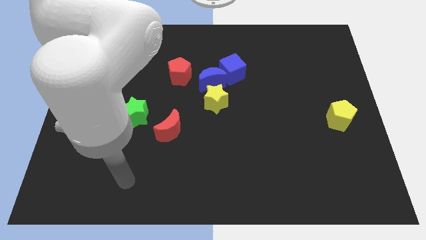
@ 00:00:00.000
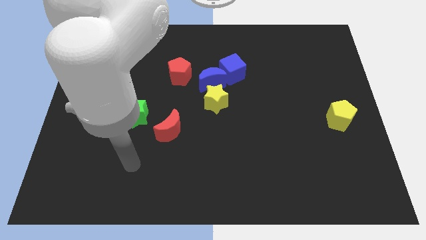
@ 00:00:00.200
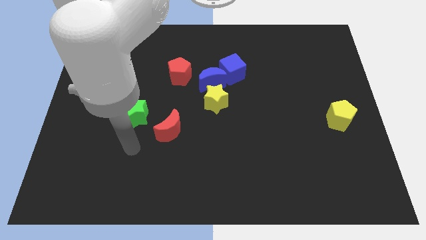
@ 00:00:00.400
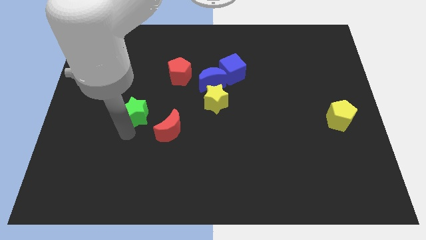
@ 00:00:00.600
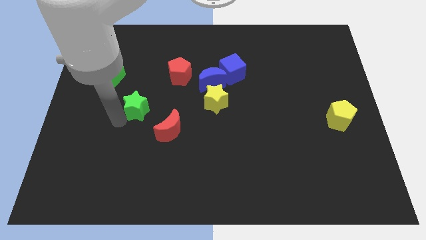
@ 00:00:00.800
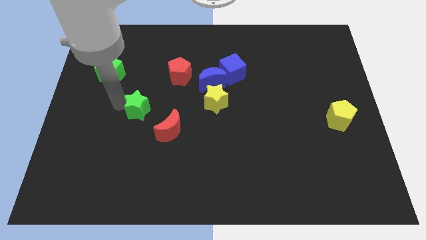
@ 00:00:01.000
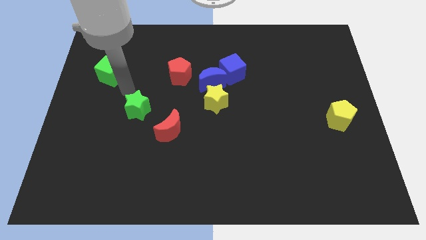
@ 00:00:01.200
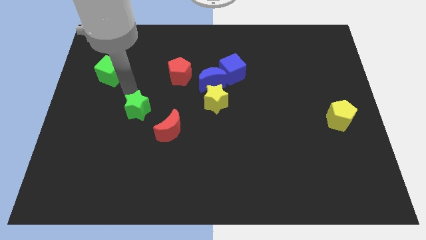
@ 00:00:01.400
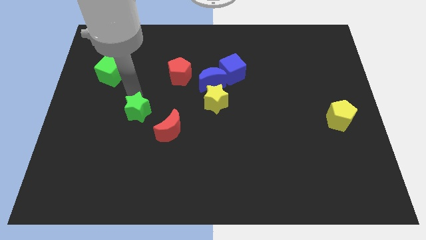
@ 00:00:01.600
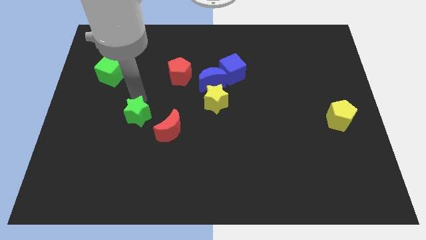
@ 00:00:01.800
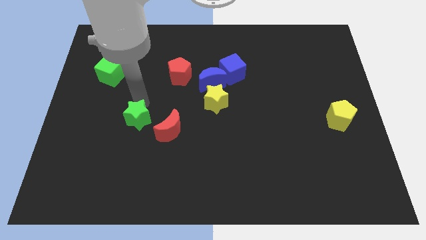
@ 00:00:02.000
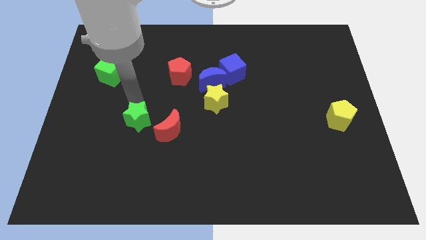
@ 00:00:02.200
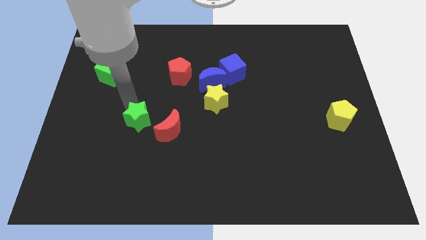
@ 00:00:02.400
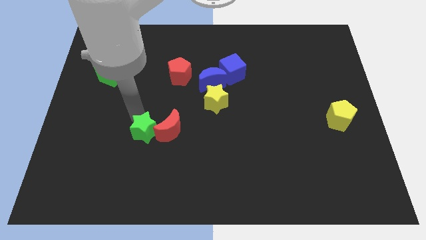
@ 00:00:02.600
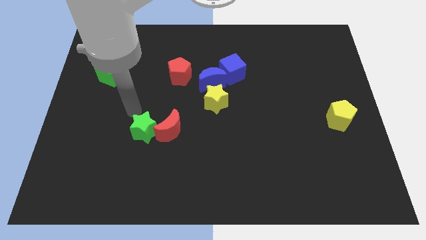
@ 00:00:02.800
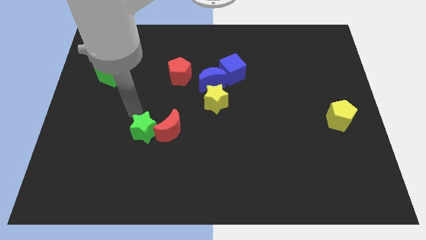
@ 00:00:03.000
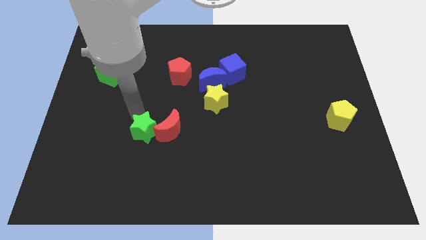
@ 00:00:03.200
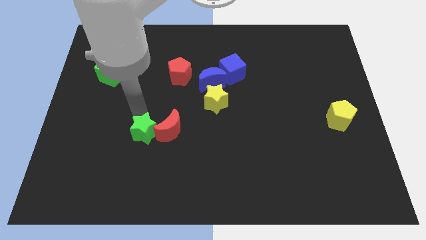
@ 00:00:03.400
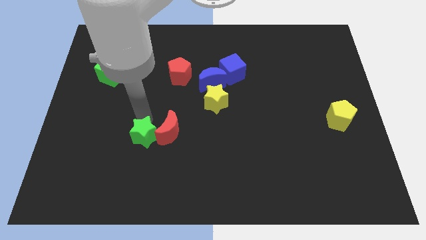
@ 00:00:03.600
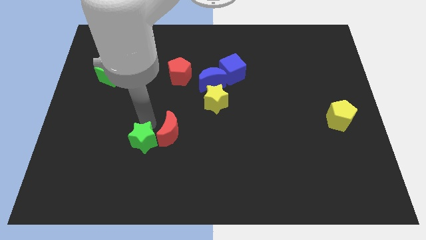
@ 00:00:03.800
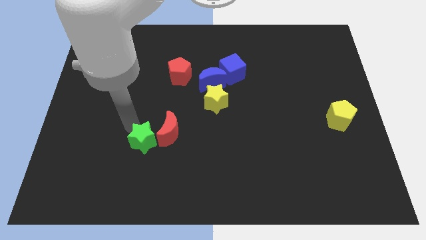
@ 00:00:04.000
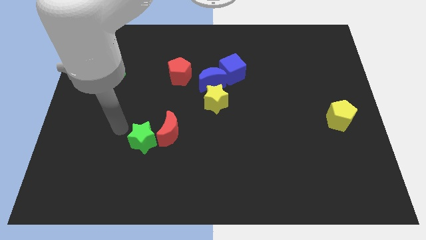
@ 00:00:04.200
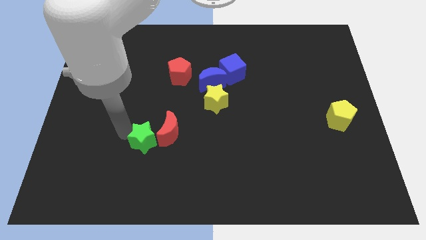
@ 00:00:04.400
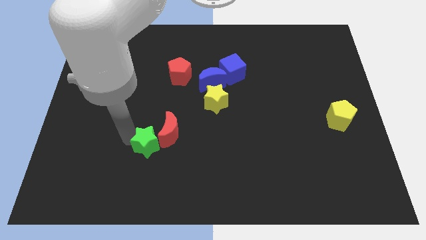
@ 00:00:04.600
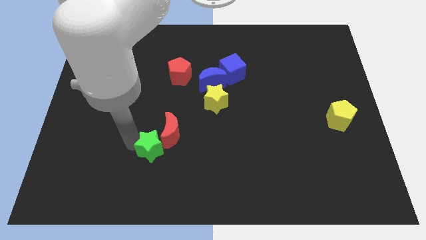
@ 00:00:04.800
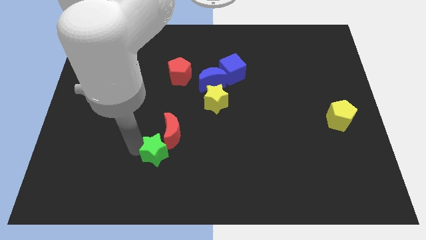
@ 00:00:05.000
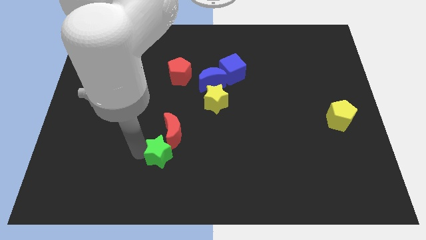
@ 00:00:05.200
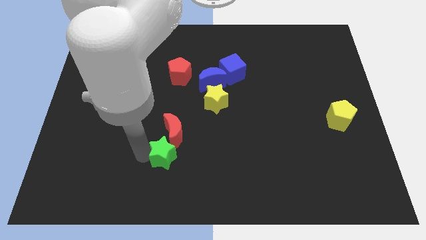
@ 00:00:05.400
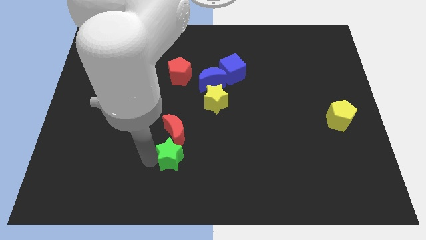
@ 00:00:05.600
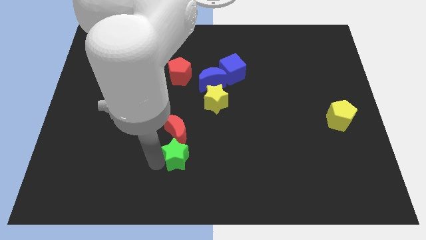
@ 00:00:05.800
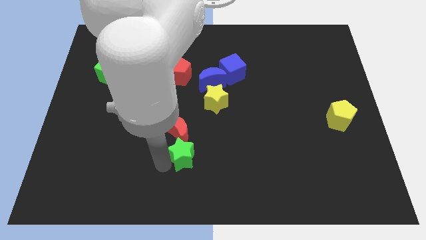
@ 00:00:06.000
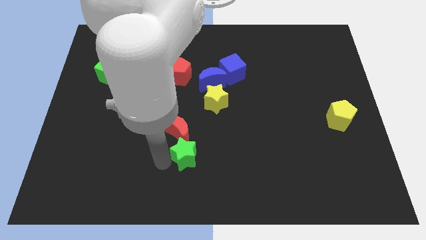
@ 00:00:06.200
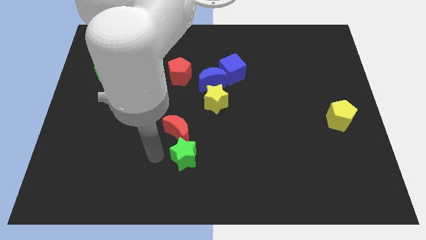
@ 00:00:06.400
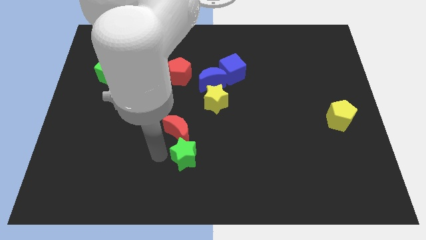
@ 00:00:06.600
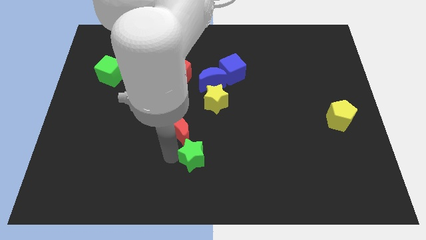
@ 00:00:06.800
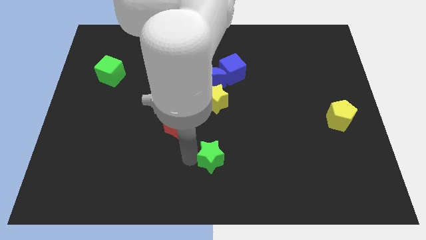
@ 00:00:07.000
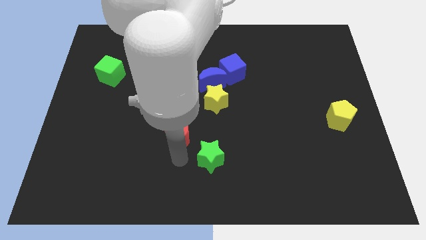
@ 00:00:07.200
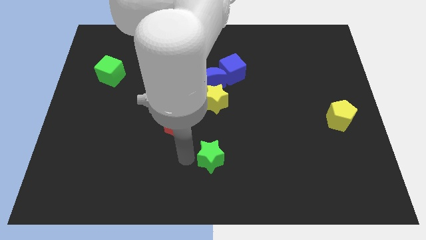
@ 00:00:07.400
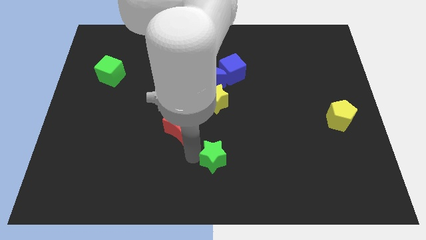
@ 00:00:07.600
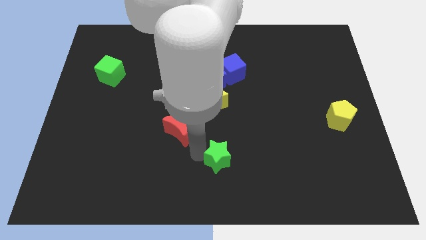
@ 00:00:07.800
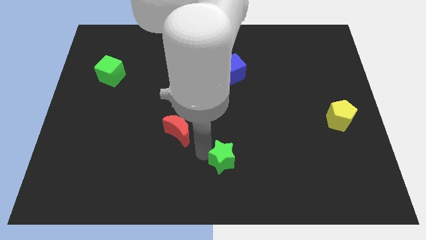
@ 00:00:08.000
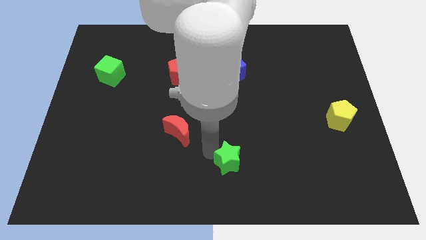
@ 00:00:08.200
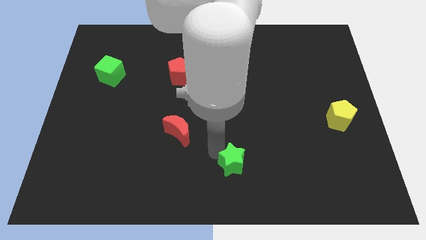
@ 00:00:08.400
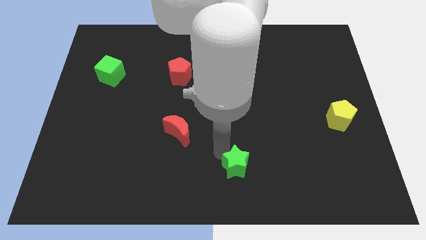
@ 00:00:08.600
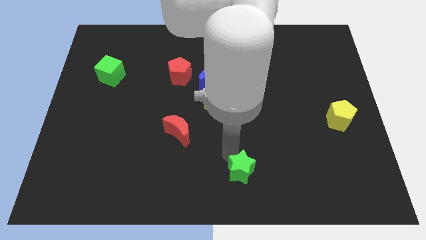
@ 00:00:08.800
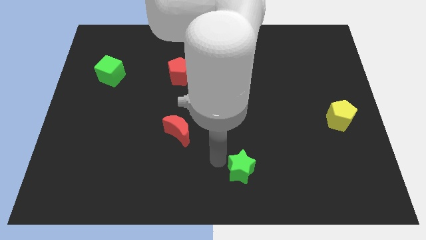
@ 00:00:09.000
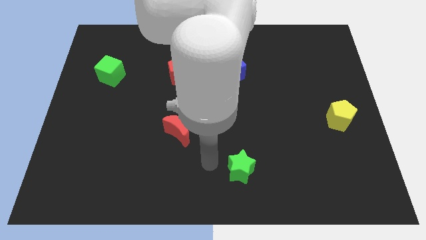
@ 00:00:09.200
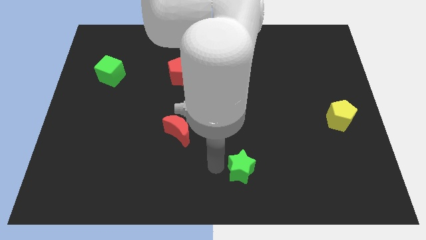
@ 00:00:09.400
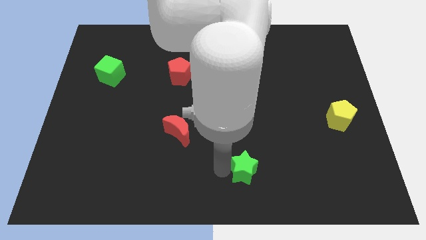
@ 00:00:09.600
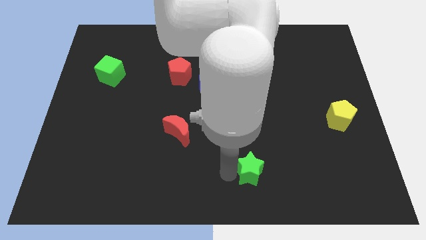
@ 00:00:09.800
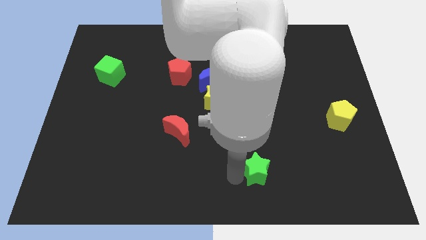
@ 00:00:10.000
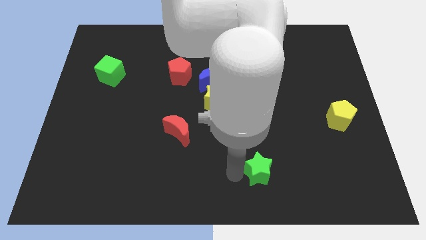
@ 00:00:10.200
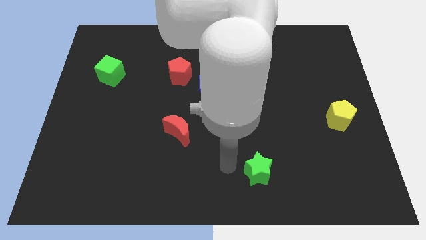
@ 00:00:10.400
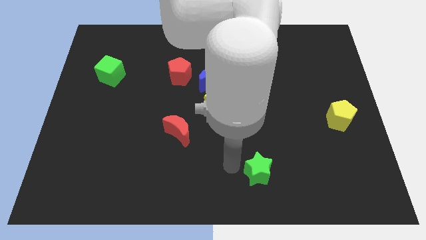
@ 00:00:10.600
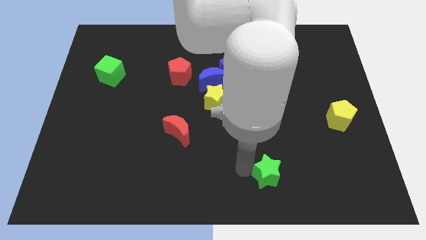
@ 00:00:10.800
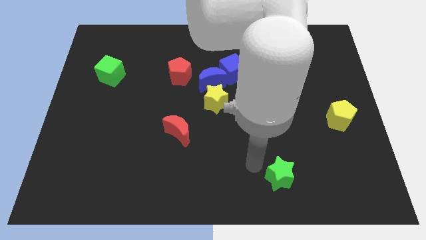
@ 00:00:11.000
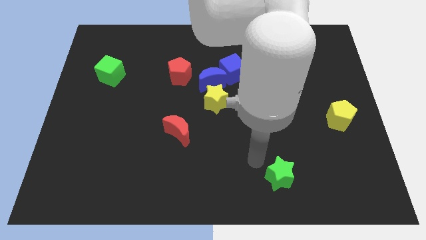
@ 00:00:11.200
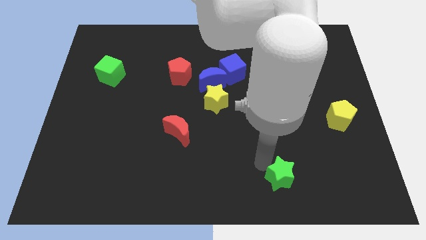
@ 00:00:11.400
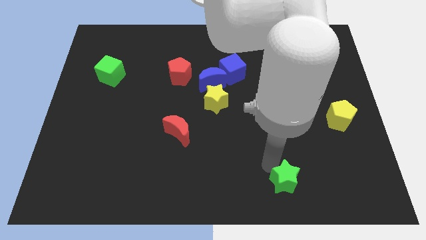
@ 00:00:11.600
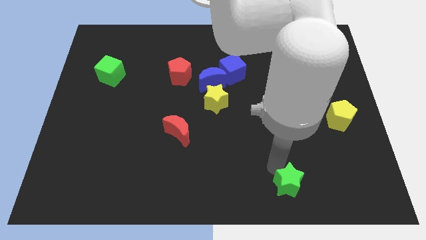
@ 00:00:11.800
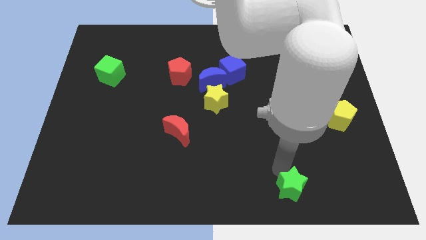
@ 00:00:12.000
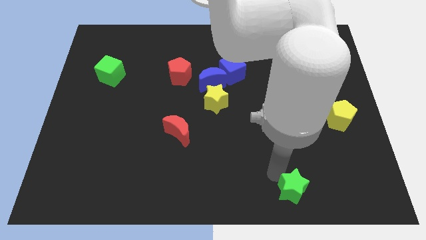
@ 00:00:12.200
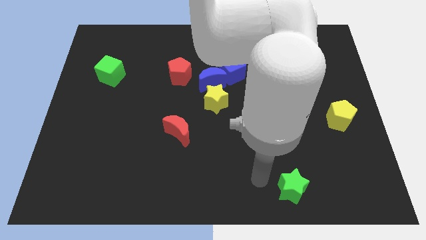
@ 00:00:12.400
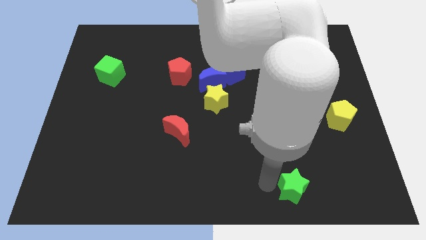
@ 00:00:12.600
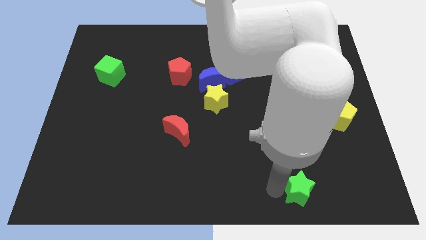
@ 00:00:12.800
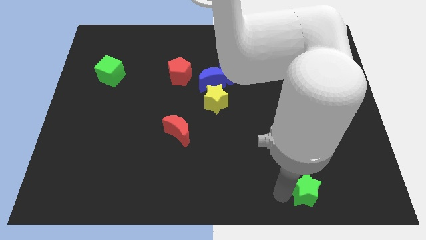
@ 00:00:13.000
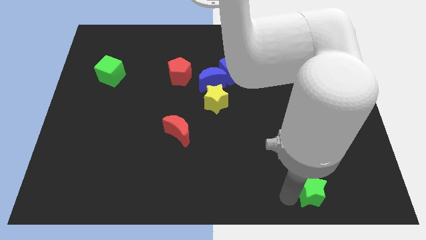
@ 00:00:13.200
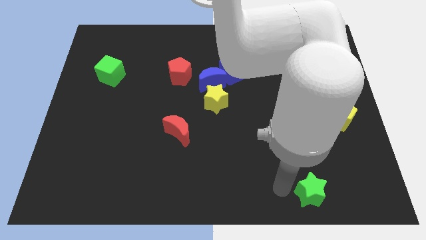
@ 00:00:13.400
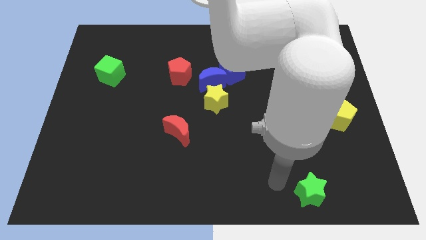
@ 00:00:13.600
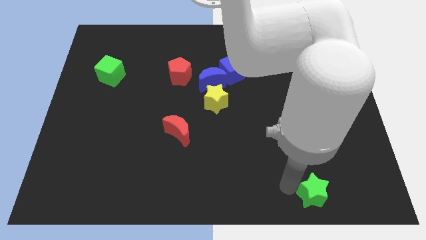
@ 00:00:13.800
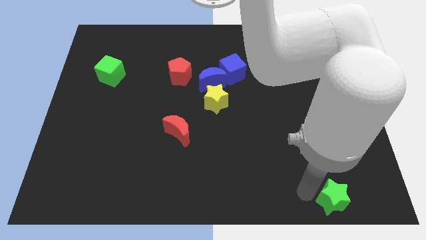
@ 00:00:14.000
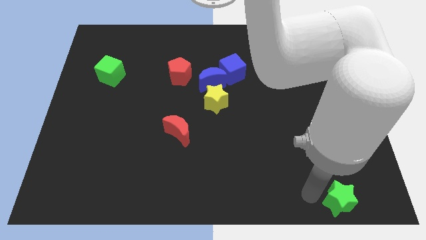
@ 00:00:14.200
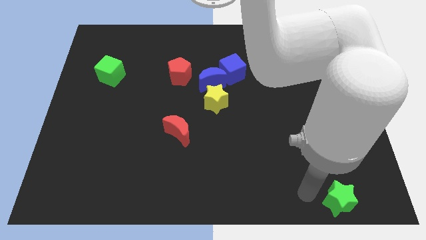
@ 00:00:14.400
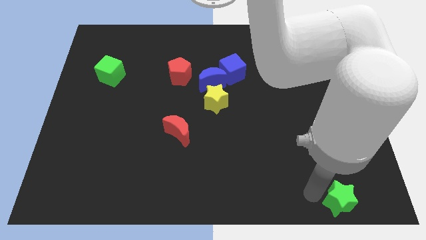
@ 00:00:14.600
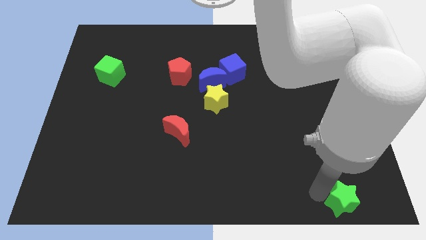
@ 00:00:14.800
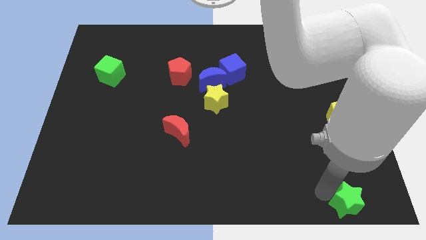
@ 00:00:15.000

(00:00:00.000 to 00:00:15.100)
push the green star to the lower right corner
